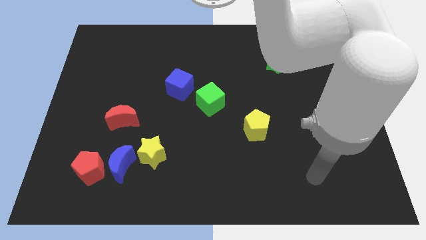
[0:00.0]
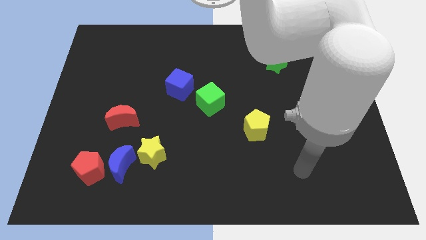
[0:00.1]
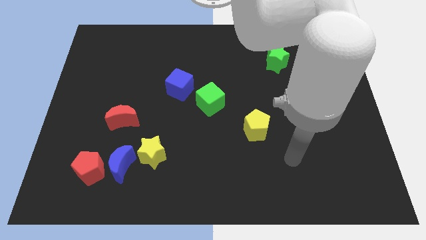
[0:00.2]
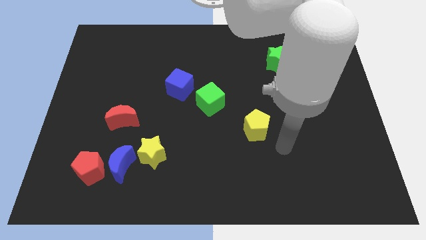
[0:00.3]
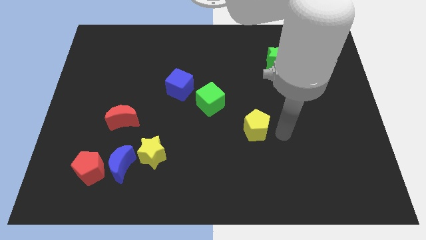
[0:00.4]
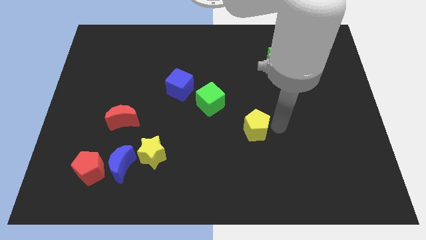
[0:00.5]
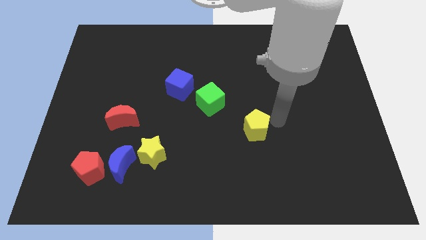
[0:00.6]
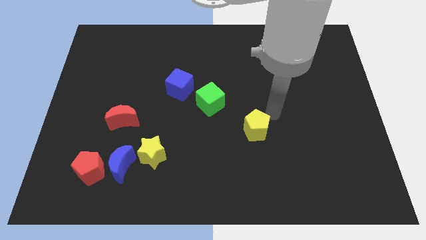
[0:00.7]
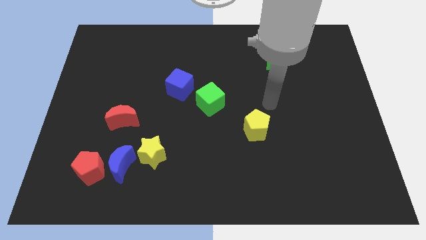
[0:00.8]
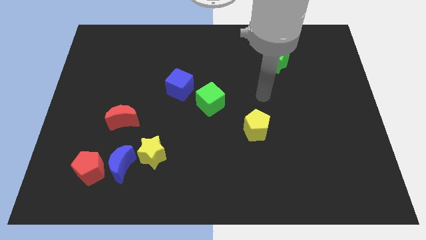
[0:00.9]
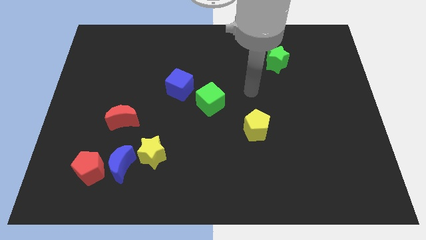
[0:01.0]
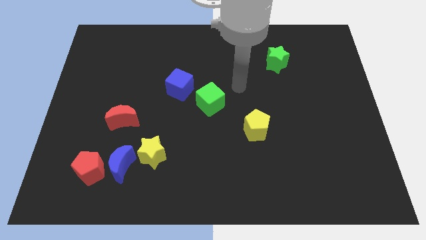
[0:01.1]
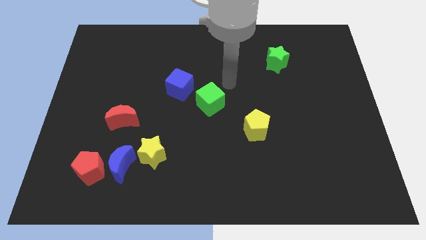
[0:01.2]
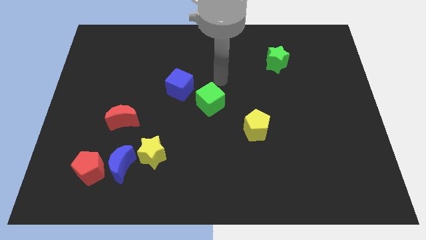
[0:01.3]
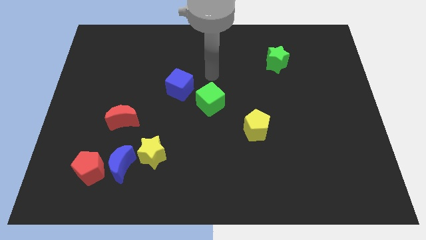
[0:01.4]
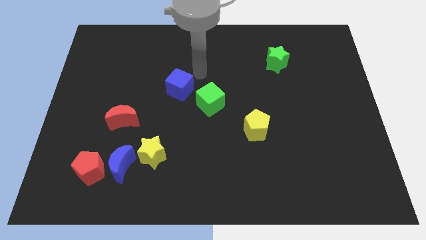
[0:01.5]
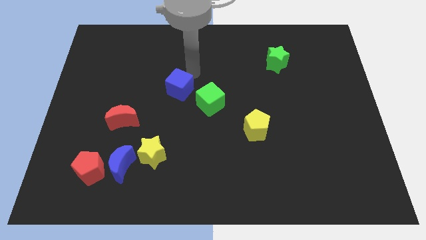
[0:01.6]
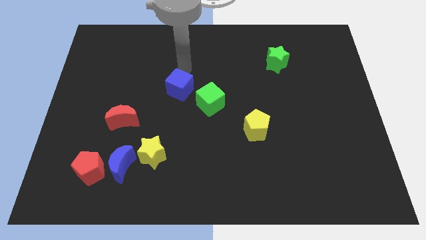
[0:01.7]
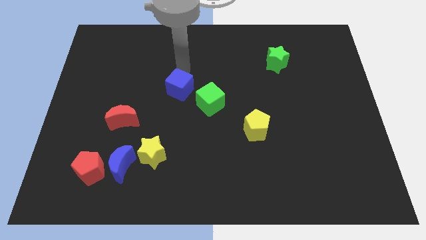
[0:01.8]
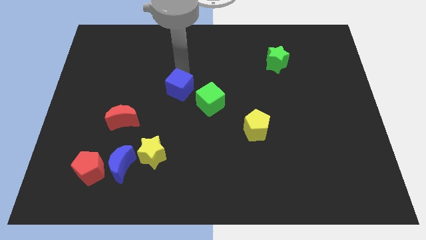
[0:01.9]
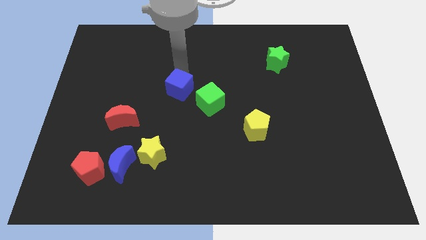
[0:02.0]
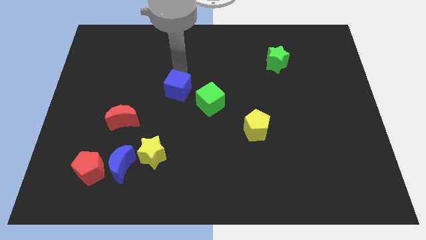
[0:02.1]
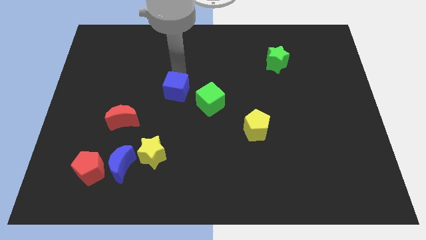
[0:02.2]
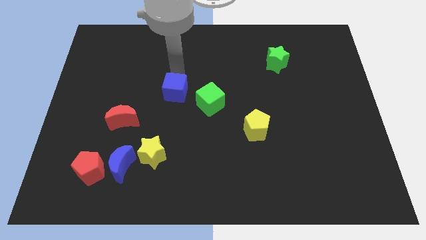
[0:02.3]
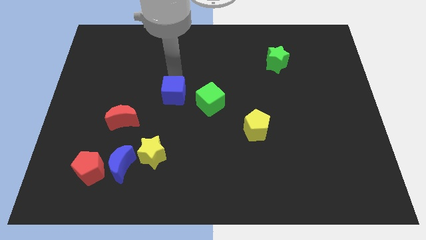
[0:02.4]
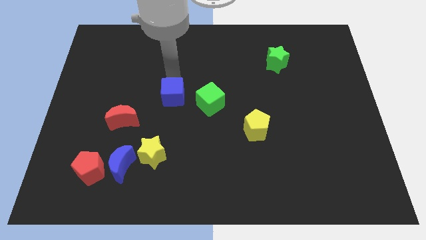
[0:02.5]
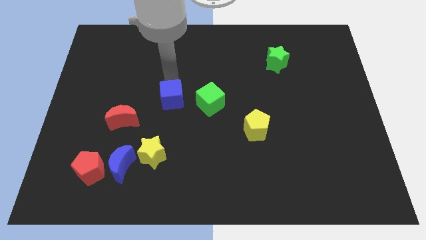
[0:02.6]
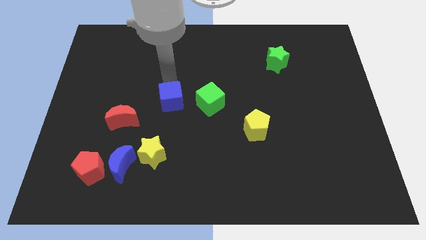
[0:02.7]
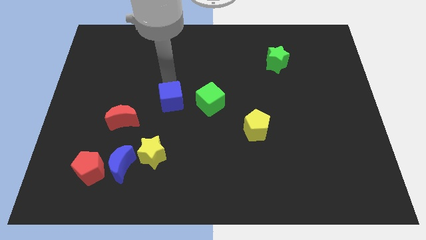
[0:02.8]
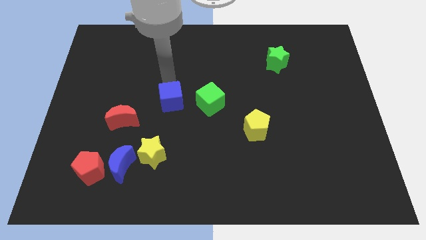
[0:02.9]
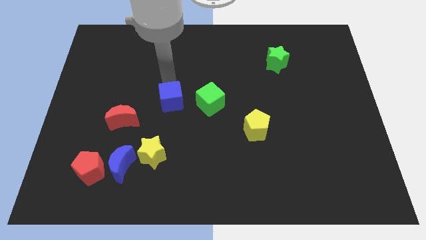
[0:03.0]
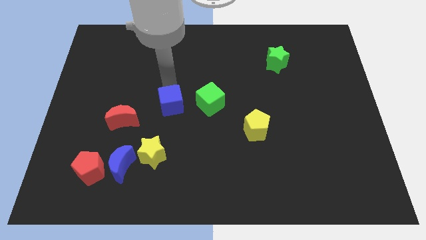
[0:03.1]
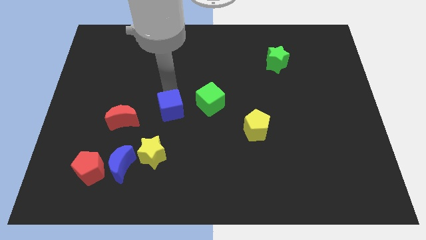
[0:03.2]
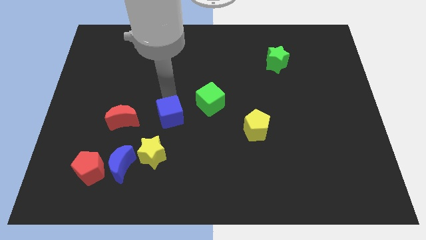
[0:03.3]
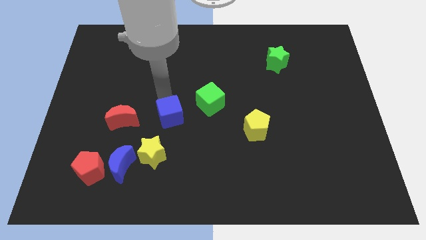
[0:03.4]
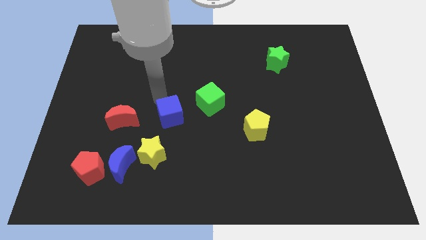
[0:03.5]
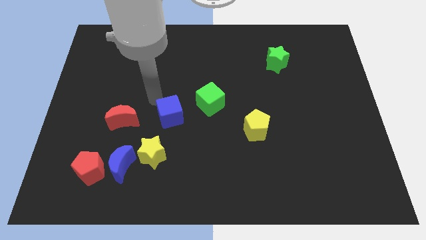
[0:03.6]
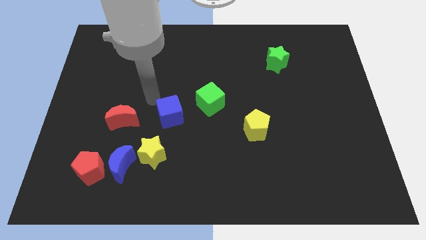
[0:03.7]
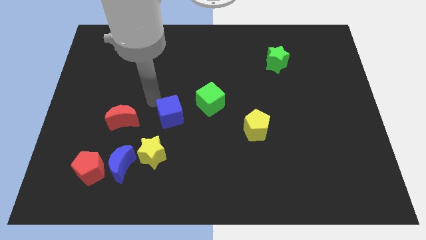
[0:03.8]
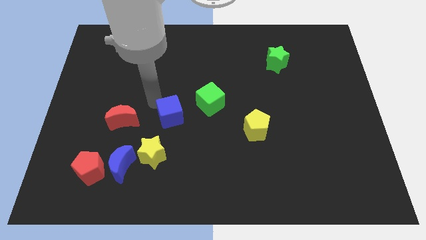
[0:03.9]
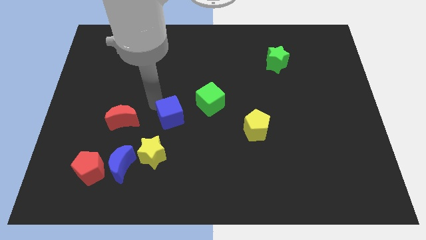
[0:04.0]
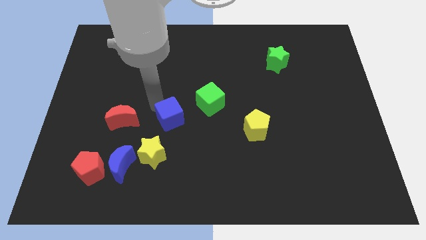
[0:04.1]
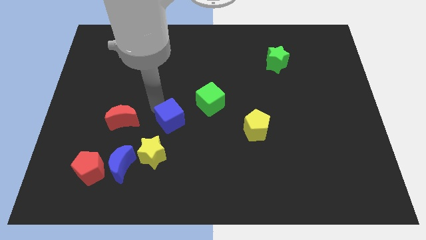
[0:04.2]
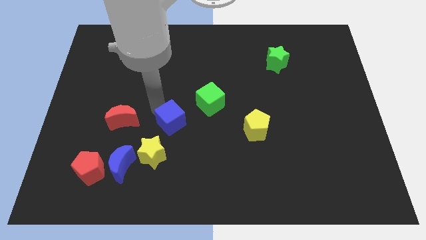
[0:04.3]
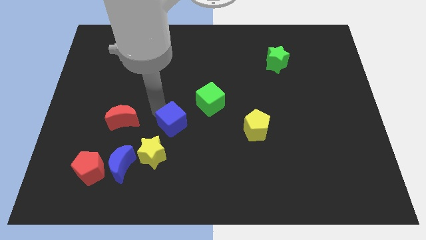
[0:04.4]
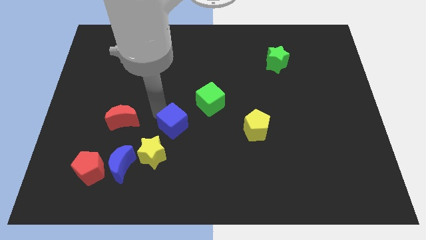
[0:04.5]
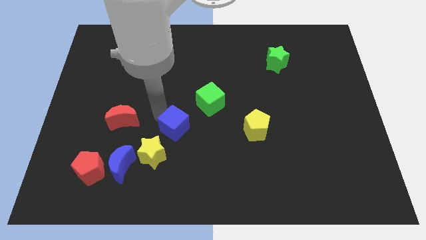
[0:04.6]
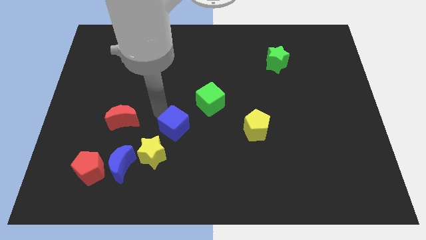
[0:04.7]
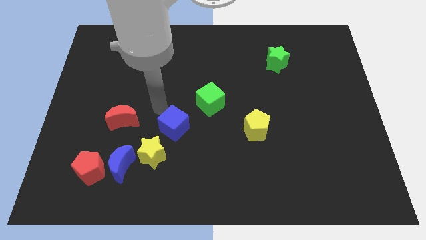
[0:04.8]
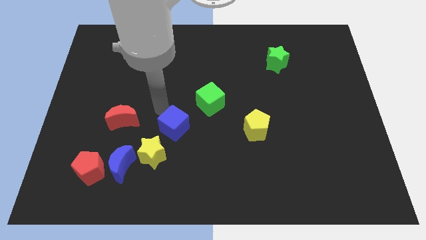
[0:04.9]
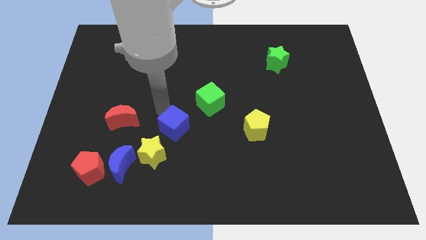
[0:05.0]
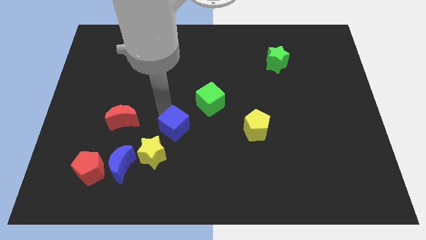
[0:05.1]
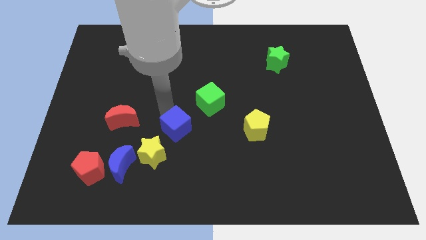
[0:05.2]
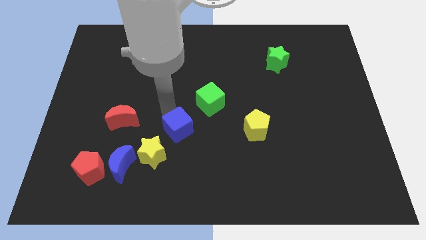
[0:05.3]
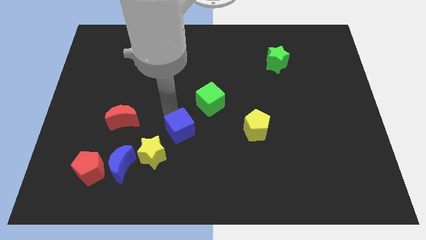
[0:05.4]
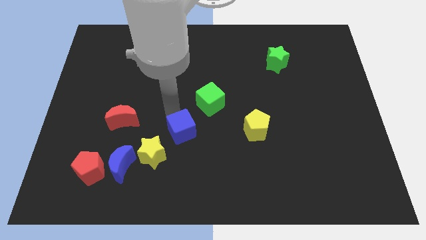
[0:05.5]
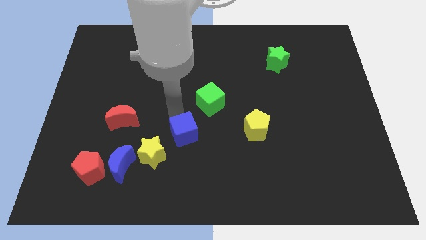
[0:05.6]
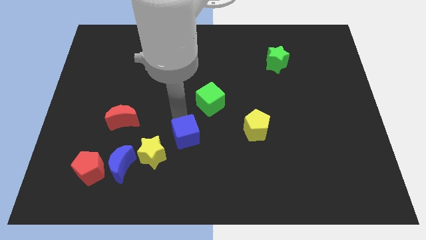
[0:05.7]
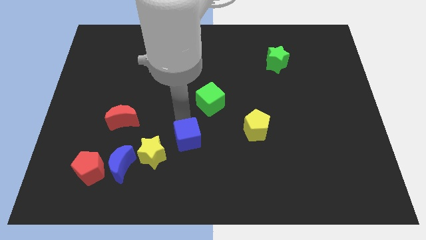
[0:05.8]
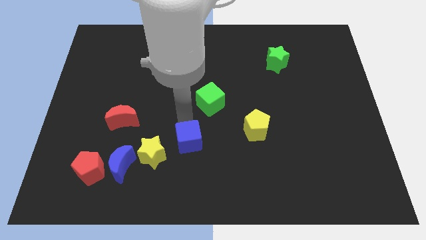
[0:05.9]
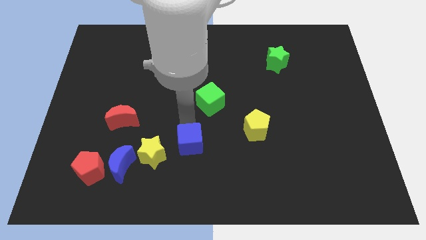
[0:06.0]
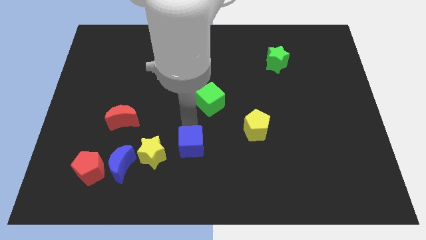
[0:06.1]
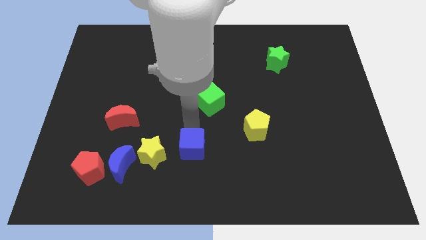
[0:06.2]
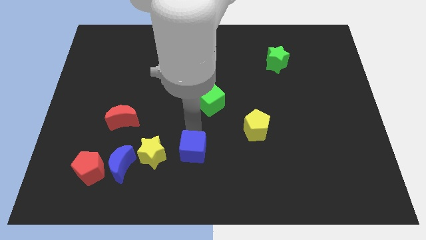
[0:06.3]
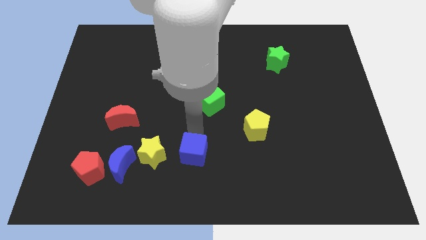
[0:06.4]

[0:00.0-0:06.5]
put the blue cube to the right of the blue moon

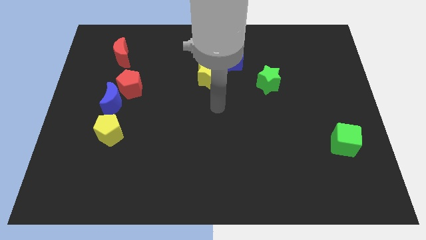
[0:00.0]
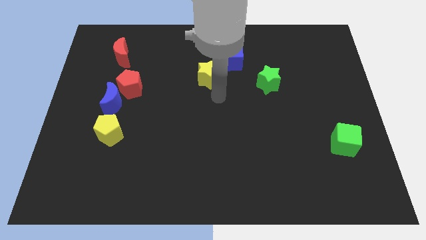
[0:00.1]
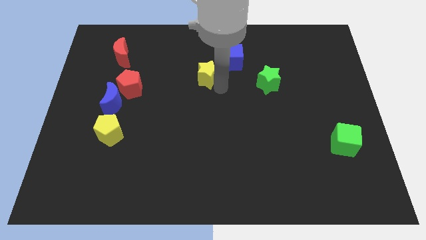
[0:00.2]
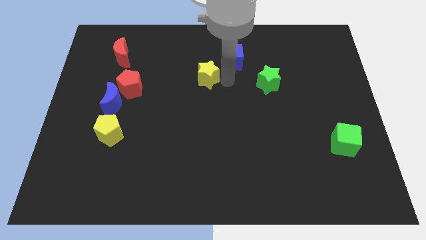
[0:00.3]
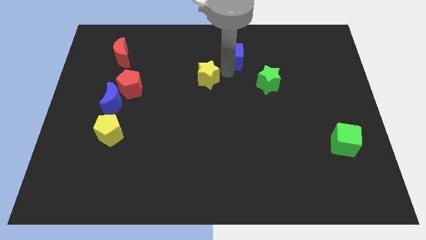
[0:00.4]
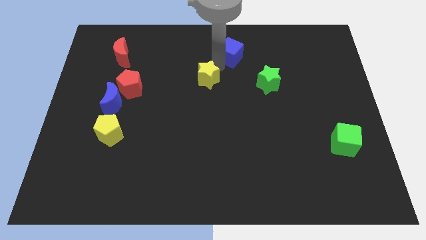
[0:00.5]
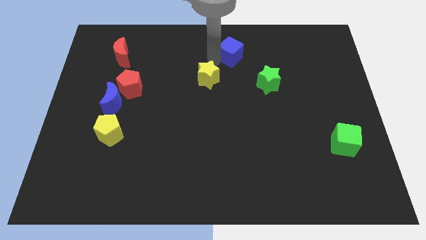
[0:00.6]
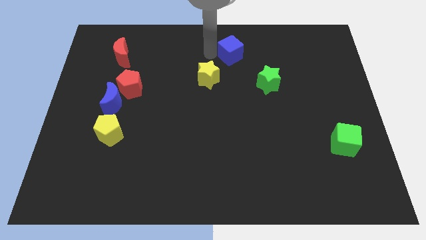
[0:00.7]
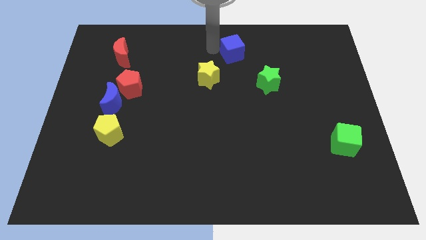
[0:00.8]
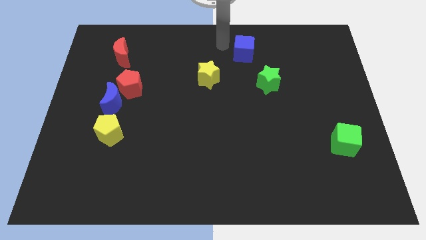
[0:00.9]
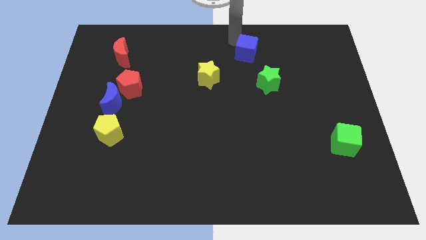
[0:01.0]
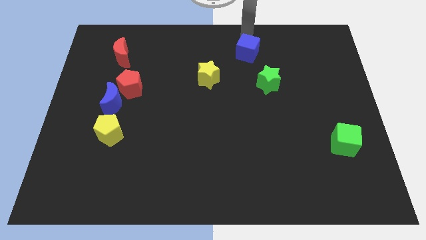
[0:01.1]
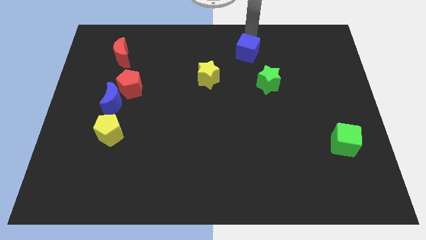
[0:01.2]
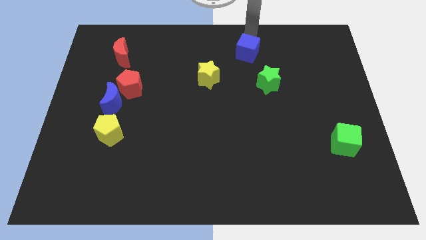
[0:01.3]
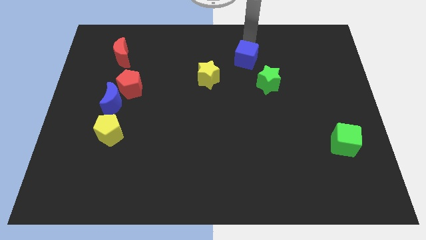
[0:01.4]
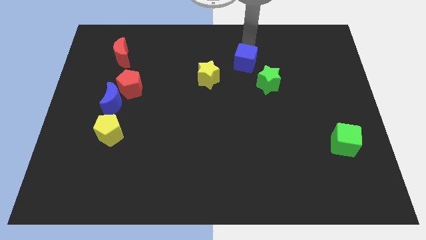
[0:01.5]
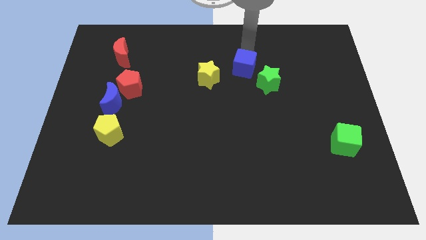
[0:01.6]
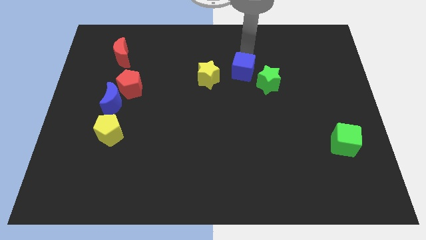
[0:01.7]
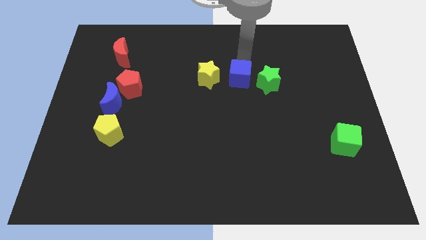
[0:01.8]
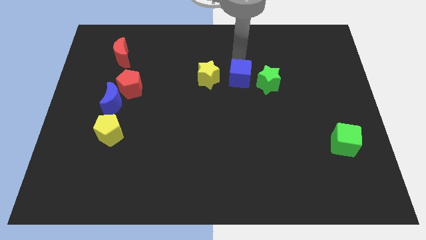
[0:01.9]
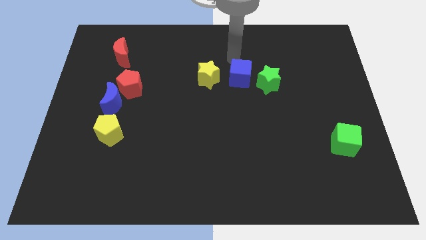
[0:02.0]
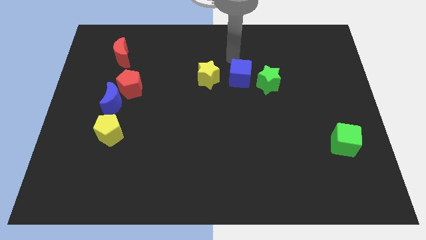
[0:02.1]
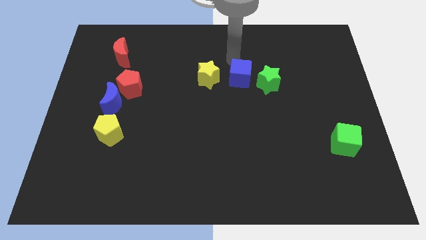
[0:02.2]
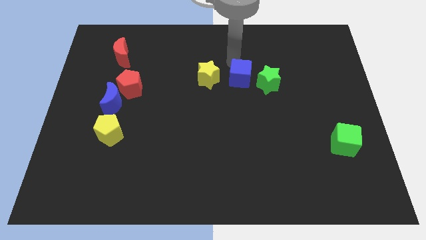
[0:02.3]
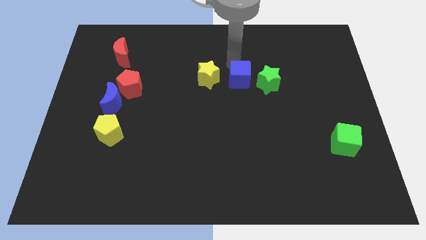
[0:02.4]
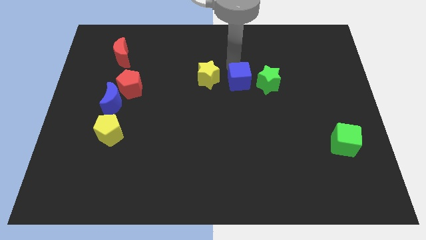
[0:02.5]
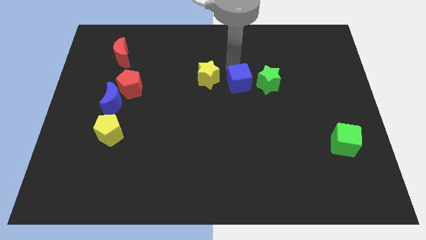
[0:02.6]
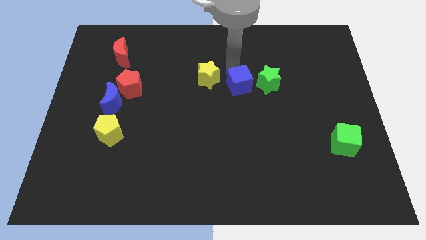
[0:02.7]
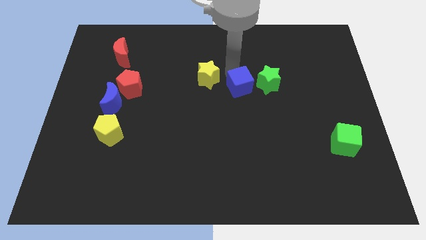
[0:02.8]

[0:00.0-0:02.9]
move the blue cube diagonally down and to the left of the green star
